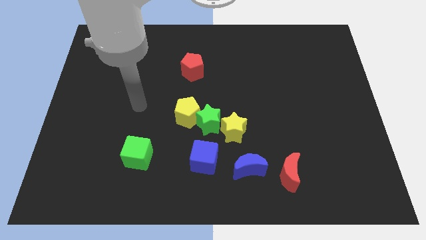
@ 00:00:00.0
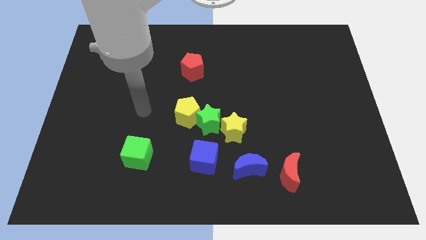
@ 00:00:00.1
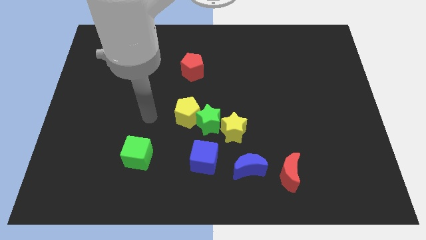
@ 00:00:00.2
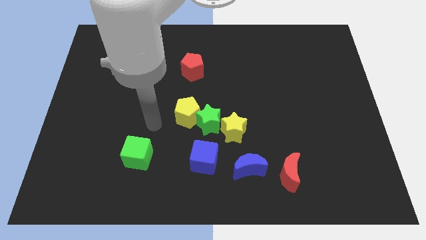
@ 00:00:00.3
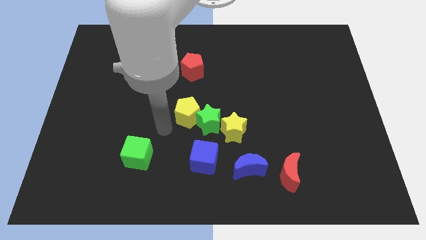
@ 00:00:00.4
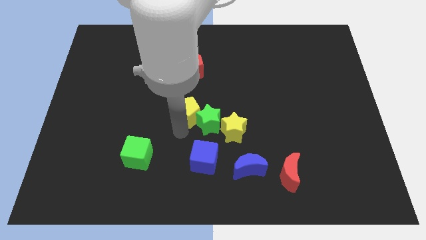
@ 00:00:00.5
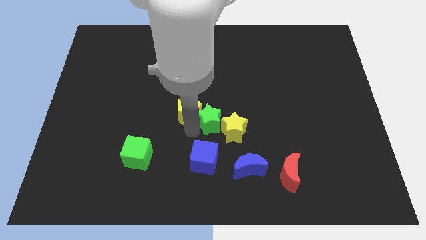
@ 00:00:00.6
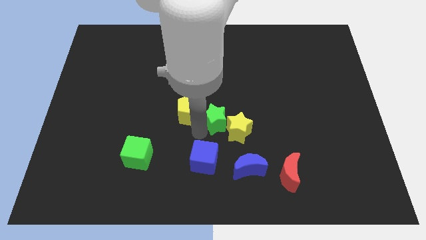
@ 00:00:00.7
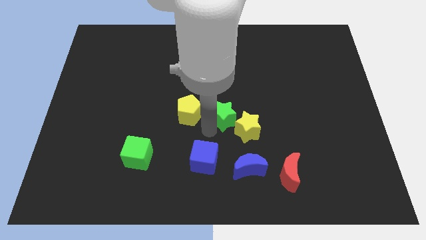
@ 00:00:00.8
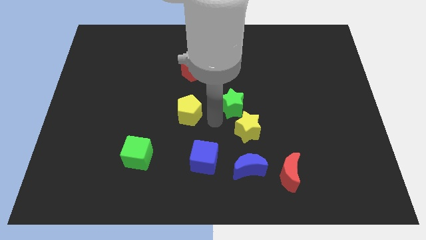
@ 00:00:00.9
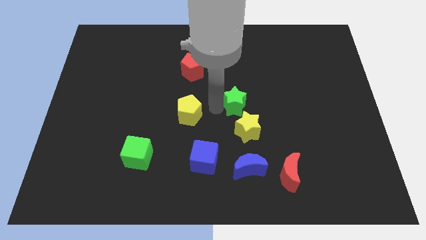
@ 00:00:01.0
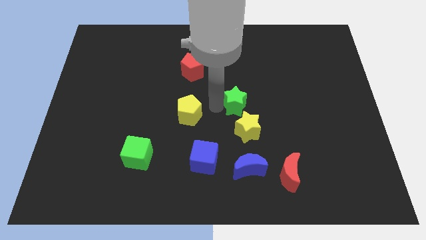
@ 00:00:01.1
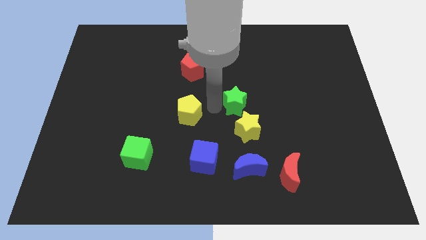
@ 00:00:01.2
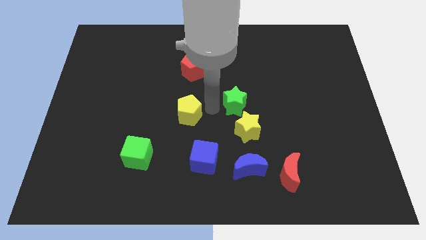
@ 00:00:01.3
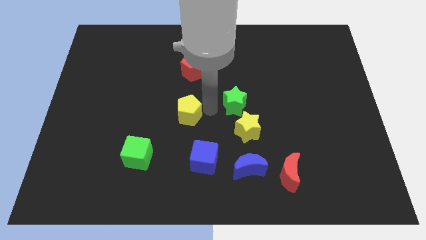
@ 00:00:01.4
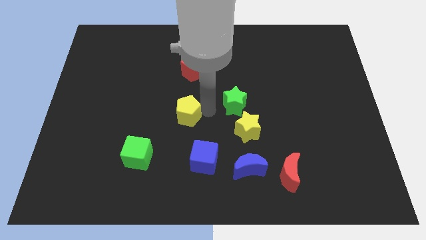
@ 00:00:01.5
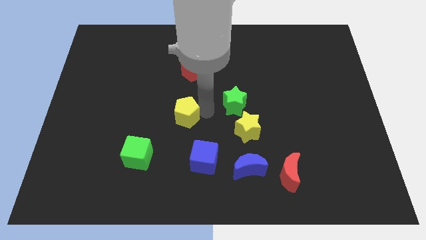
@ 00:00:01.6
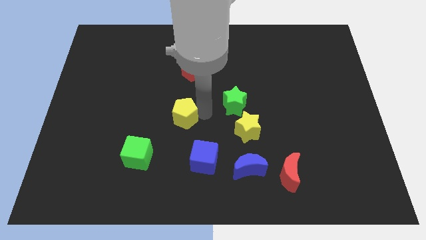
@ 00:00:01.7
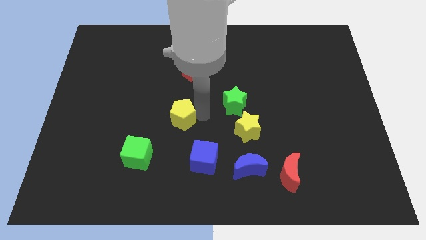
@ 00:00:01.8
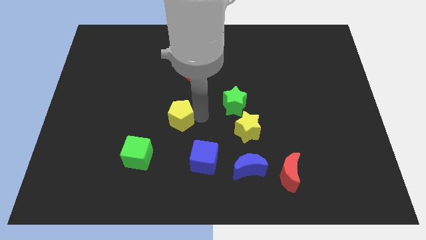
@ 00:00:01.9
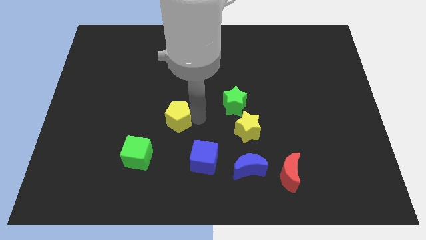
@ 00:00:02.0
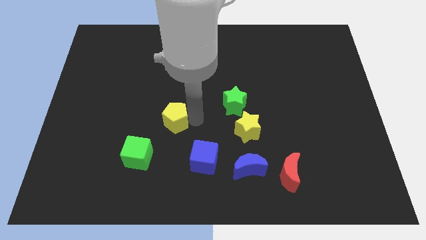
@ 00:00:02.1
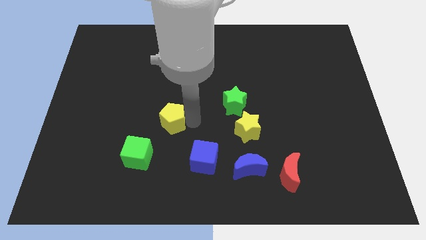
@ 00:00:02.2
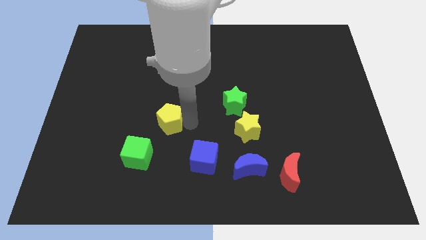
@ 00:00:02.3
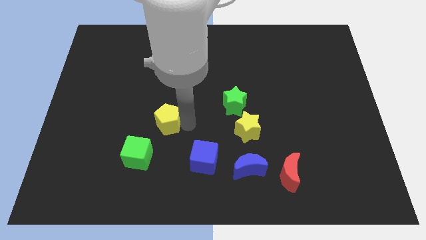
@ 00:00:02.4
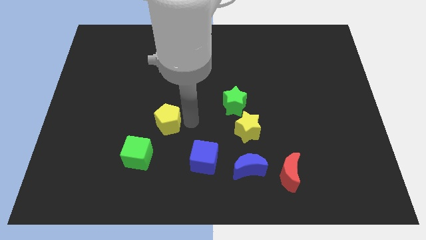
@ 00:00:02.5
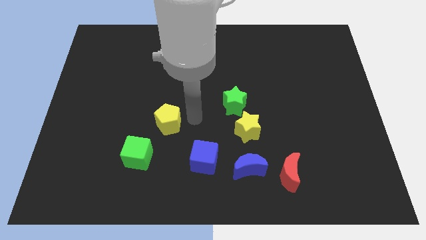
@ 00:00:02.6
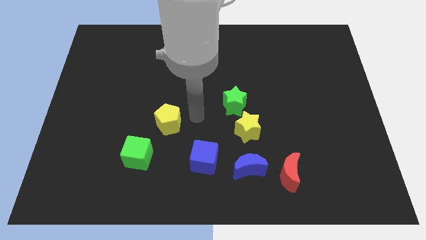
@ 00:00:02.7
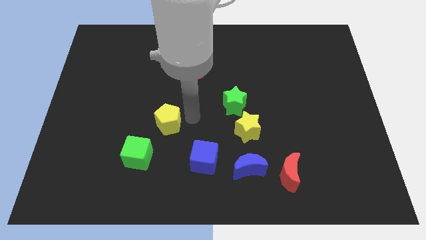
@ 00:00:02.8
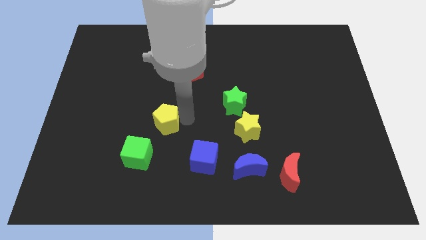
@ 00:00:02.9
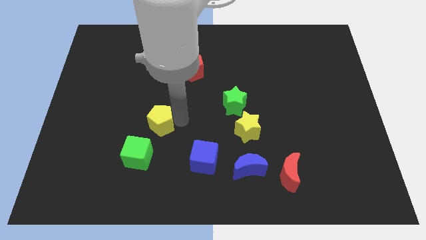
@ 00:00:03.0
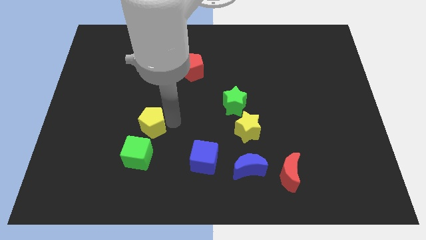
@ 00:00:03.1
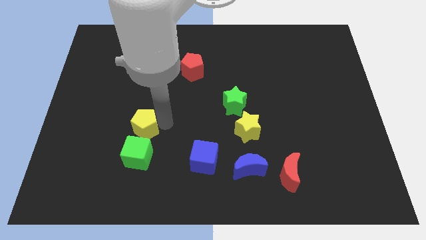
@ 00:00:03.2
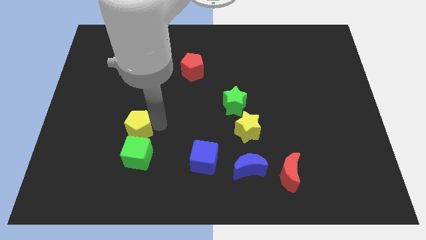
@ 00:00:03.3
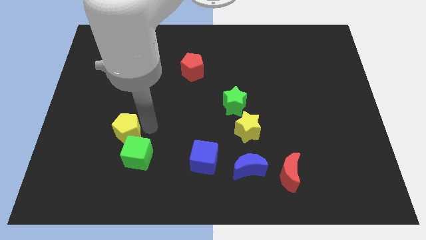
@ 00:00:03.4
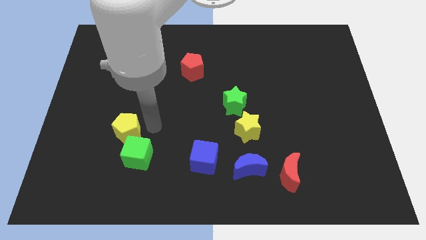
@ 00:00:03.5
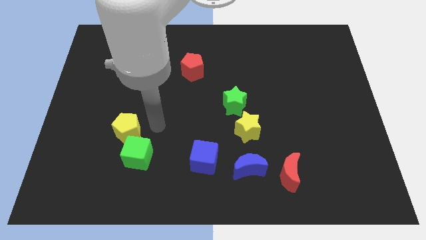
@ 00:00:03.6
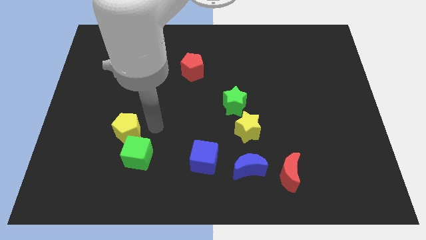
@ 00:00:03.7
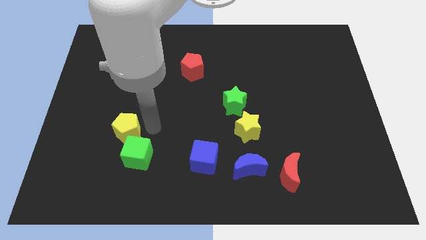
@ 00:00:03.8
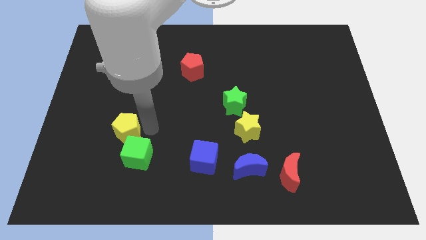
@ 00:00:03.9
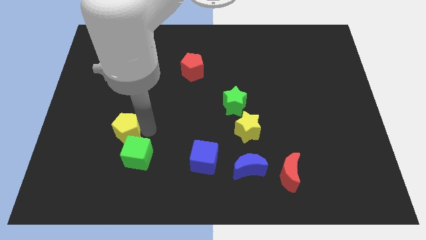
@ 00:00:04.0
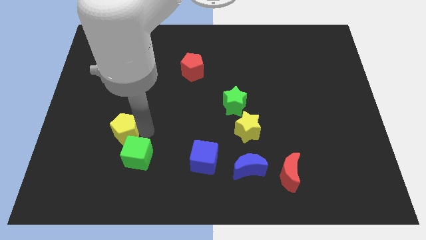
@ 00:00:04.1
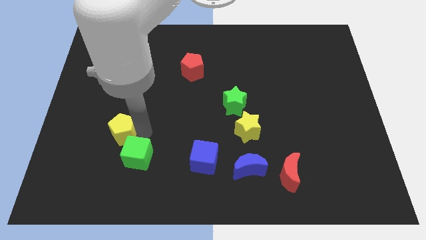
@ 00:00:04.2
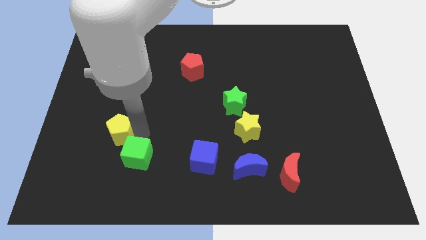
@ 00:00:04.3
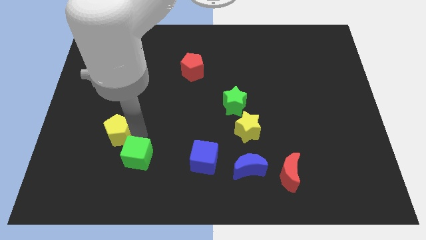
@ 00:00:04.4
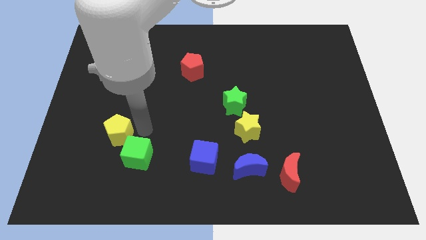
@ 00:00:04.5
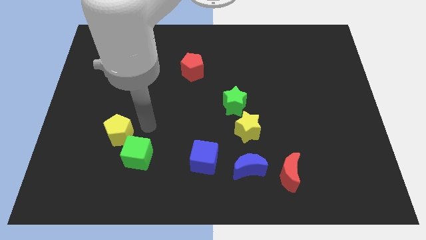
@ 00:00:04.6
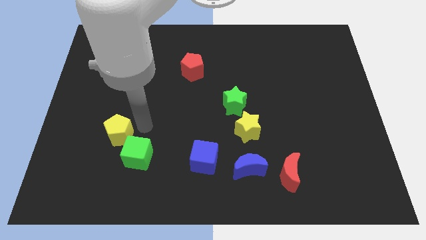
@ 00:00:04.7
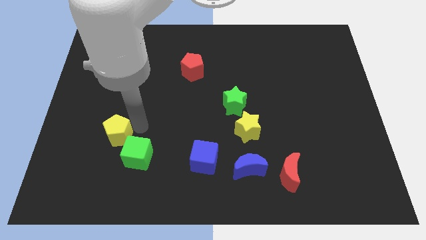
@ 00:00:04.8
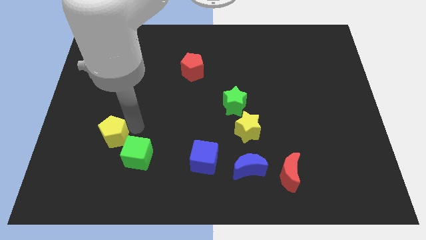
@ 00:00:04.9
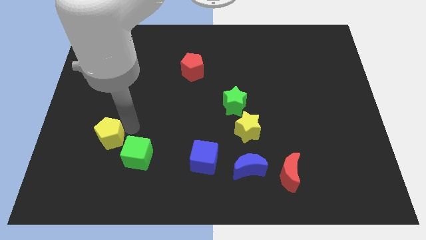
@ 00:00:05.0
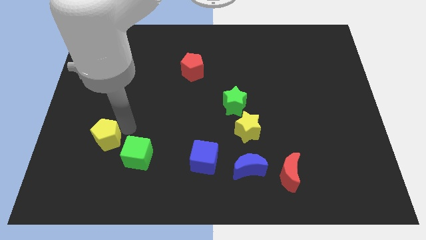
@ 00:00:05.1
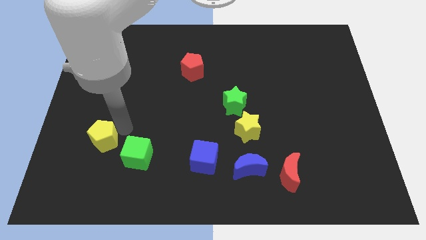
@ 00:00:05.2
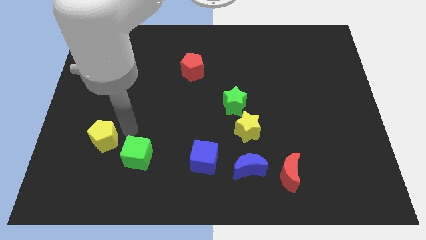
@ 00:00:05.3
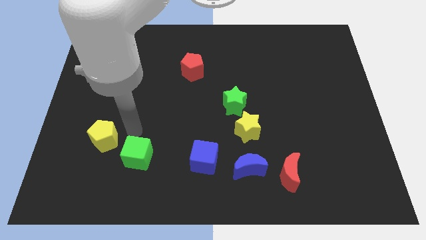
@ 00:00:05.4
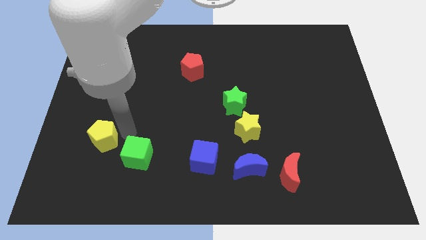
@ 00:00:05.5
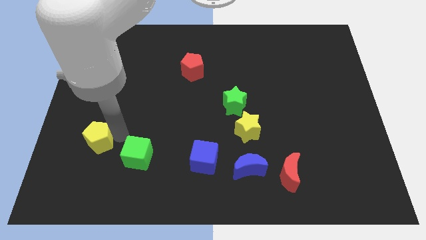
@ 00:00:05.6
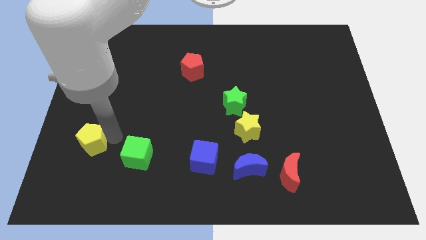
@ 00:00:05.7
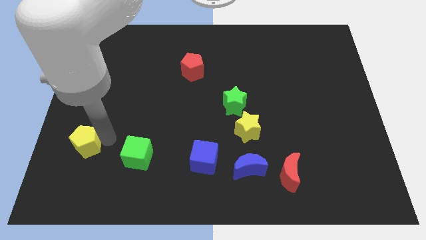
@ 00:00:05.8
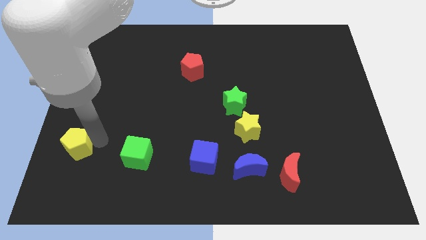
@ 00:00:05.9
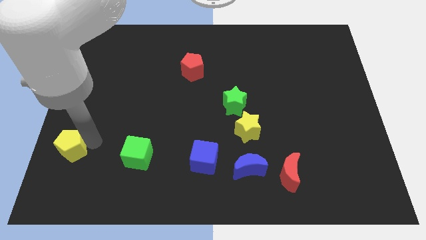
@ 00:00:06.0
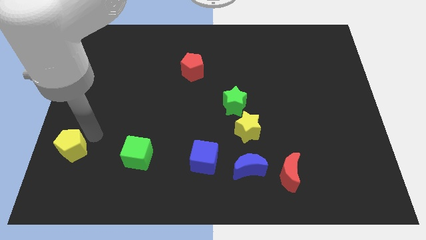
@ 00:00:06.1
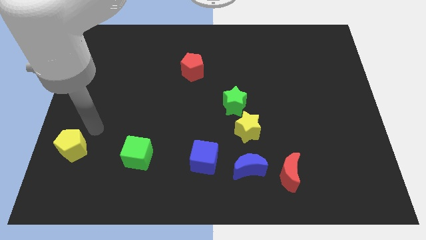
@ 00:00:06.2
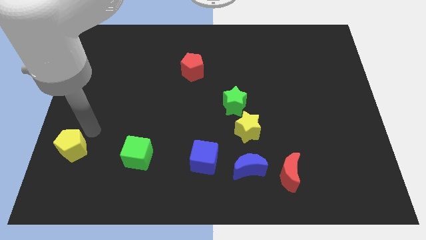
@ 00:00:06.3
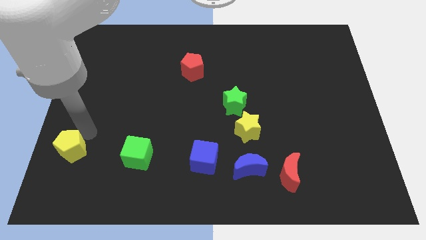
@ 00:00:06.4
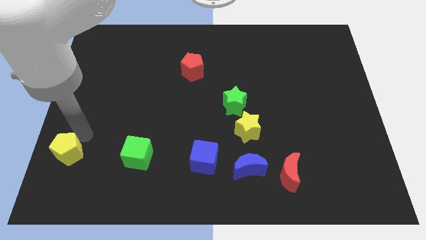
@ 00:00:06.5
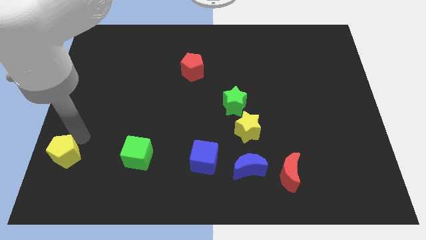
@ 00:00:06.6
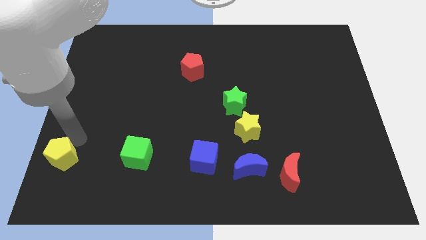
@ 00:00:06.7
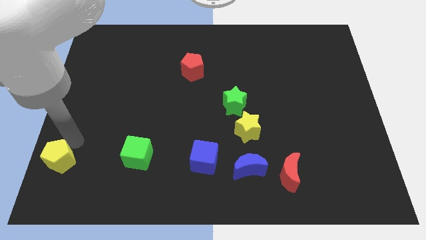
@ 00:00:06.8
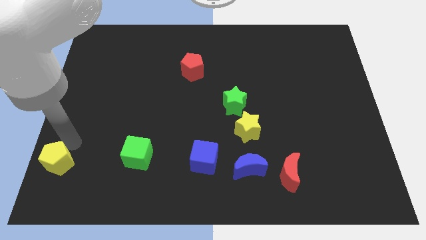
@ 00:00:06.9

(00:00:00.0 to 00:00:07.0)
slide the yellow pentagon to the bottom left corner

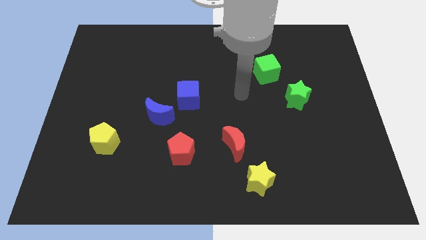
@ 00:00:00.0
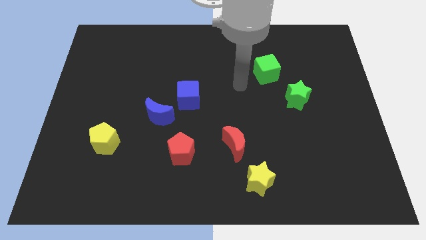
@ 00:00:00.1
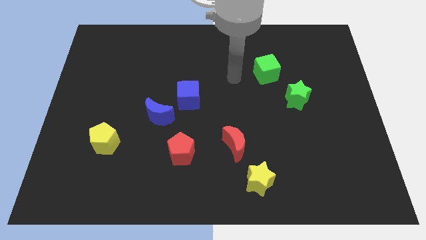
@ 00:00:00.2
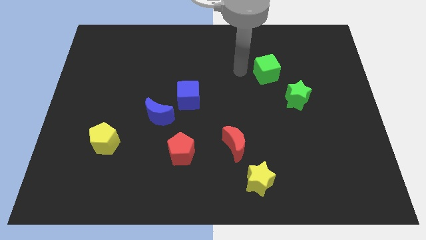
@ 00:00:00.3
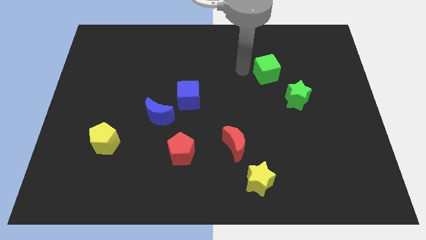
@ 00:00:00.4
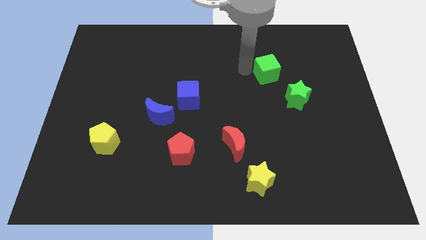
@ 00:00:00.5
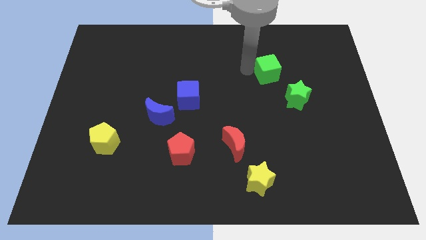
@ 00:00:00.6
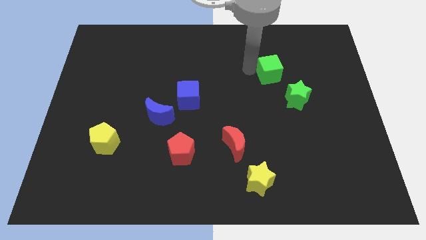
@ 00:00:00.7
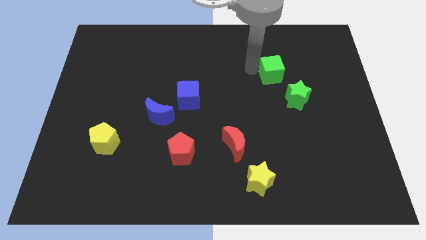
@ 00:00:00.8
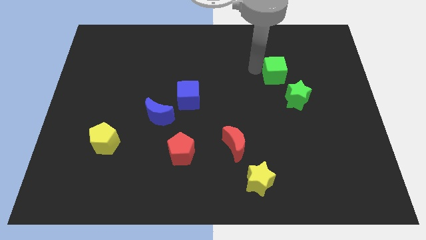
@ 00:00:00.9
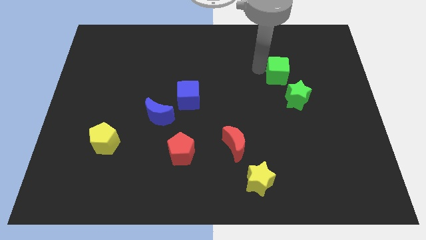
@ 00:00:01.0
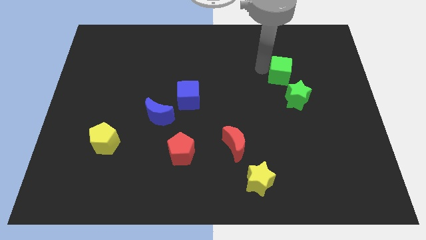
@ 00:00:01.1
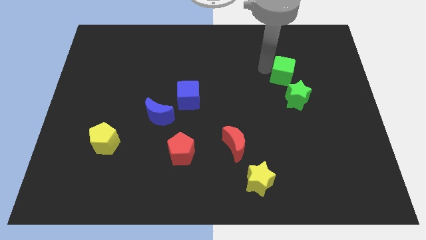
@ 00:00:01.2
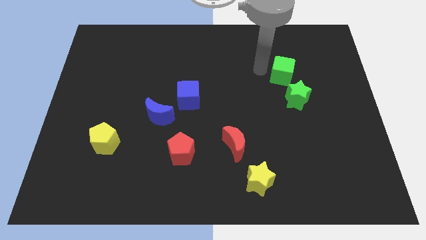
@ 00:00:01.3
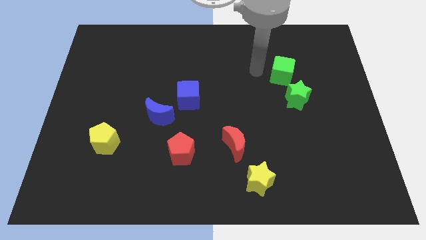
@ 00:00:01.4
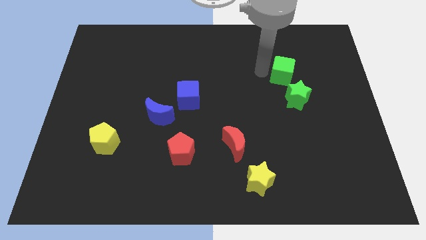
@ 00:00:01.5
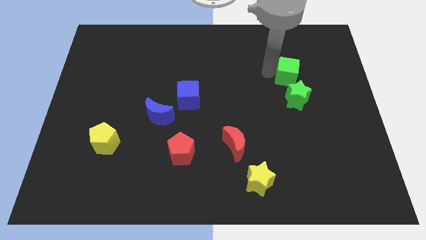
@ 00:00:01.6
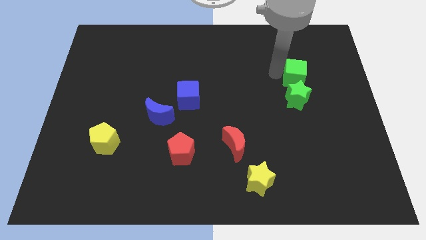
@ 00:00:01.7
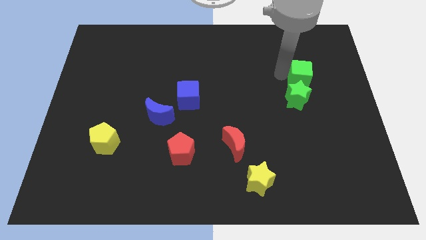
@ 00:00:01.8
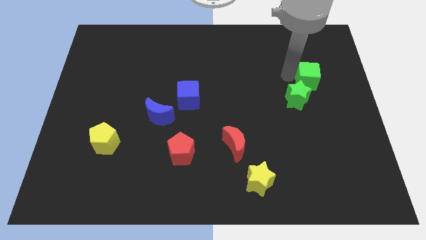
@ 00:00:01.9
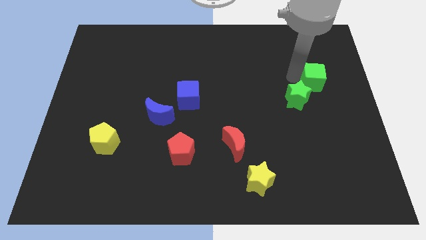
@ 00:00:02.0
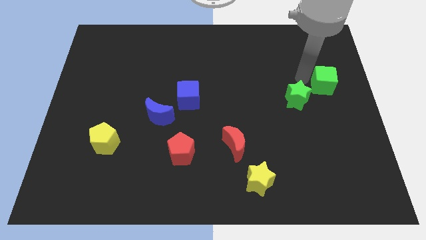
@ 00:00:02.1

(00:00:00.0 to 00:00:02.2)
slide the green cube to the center right
